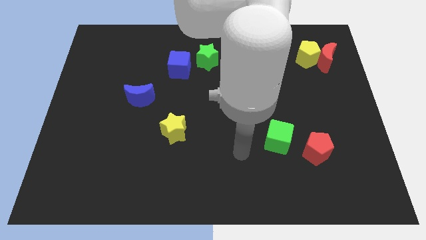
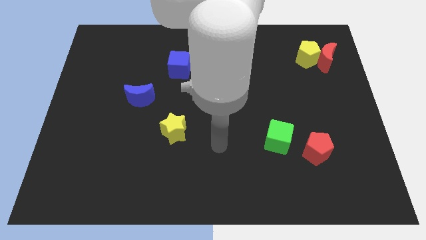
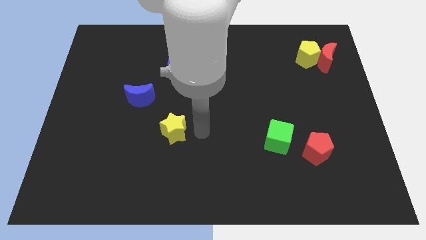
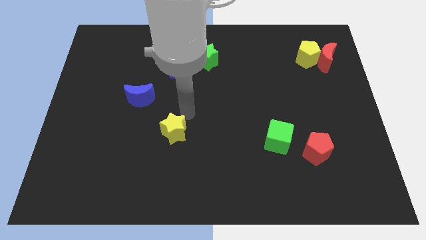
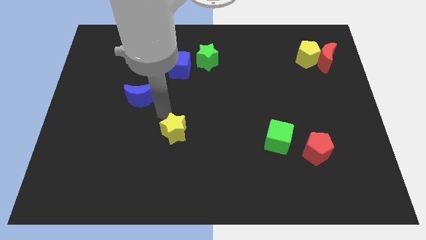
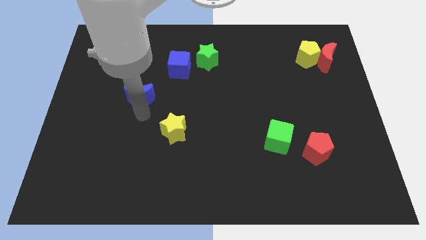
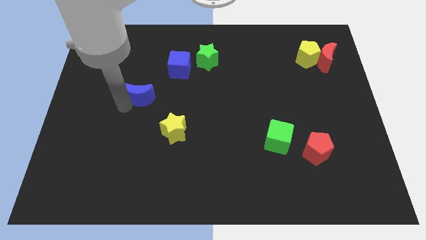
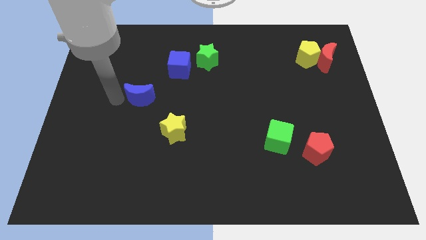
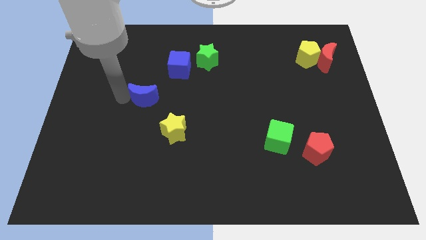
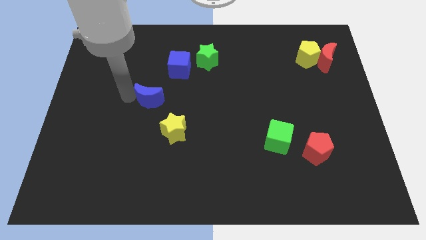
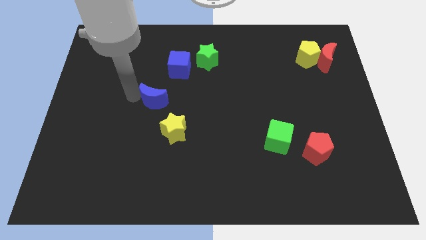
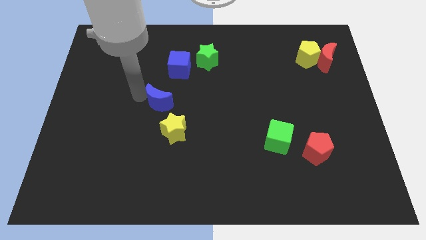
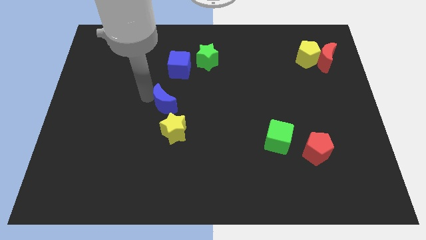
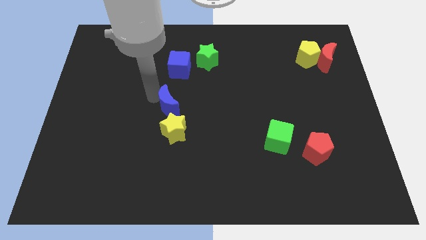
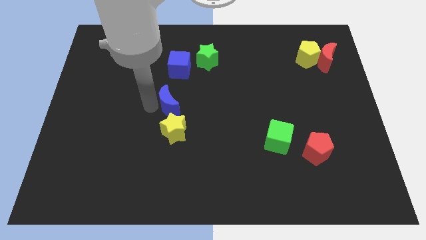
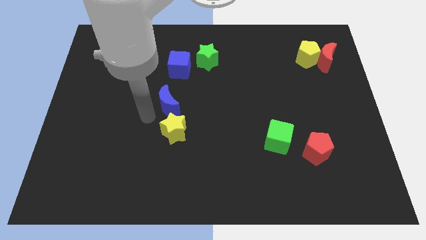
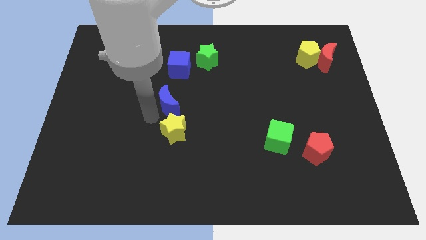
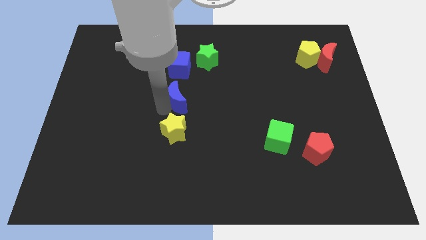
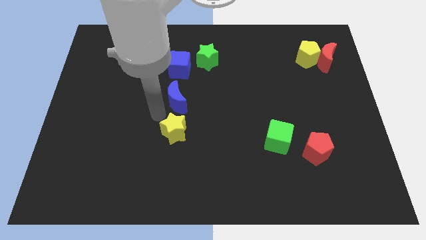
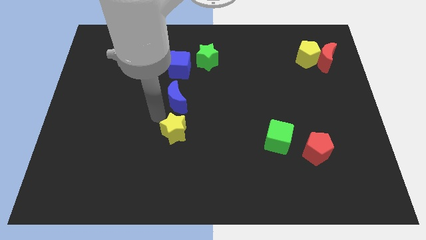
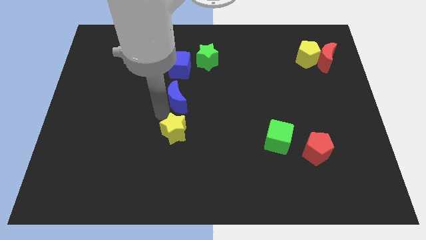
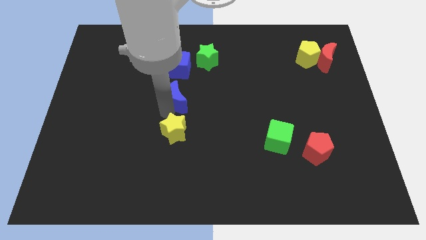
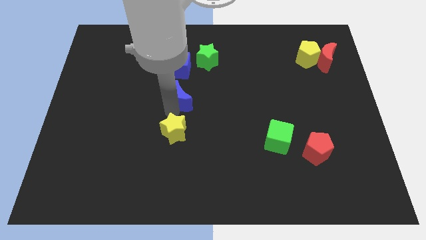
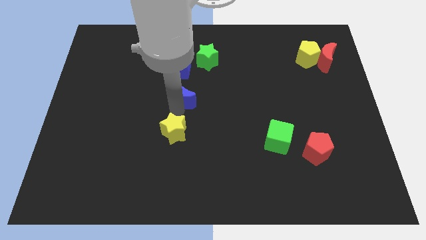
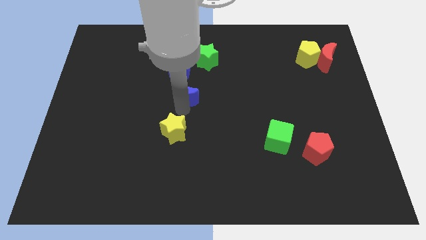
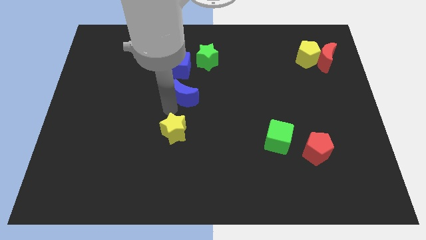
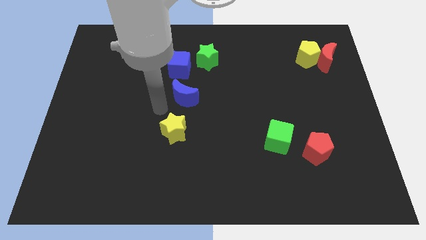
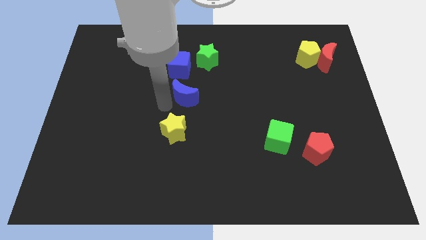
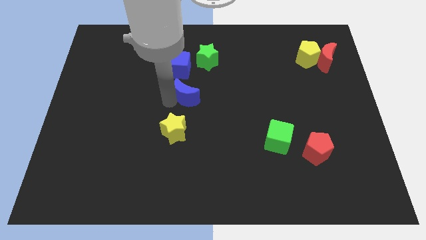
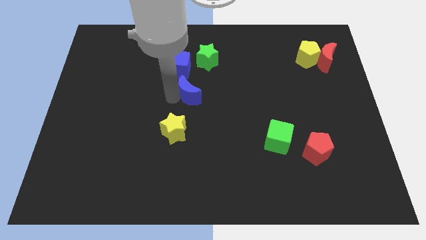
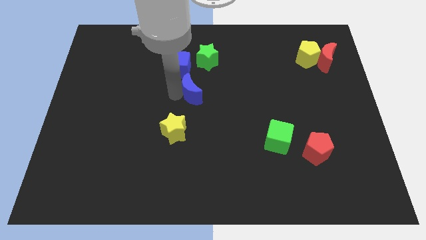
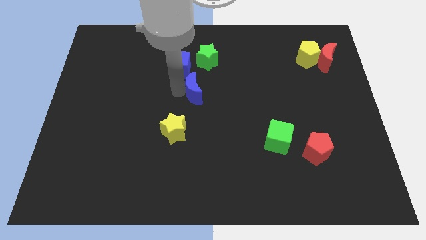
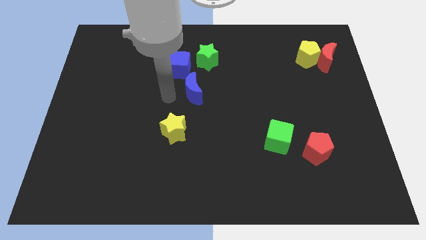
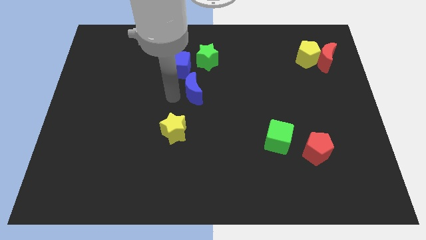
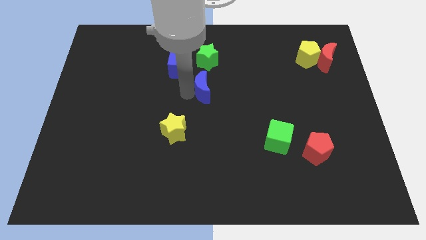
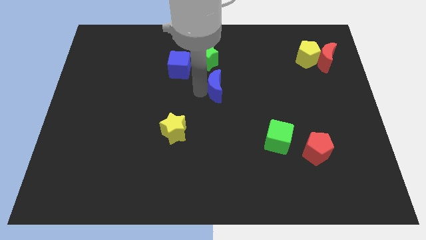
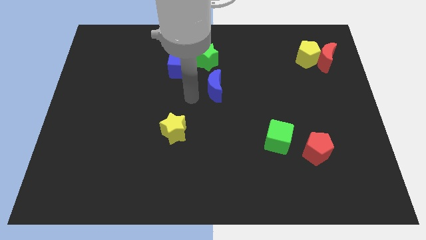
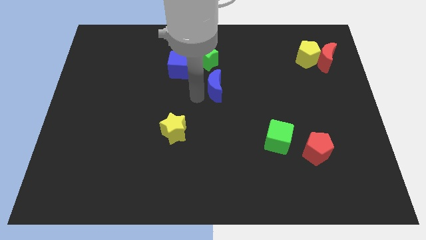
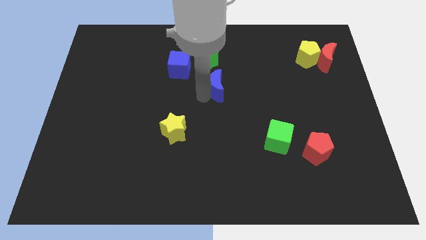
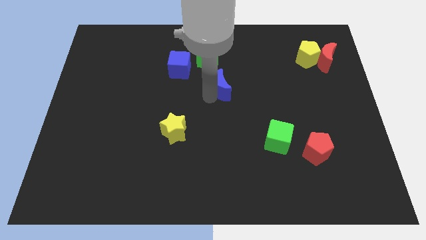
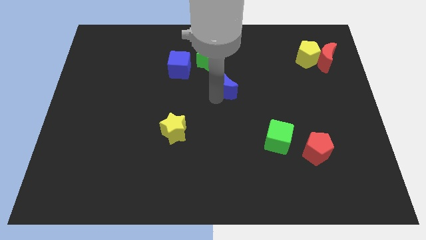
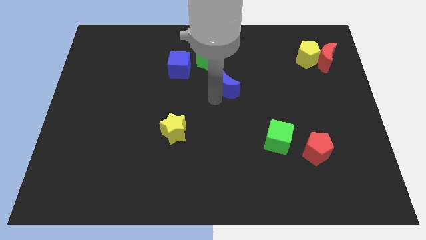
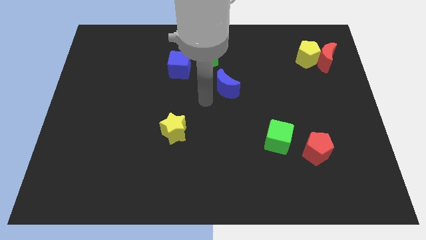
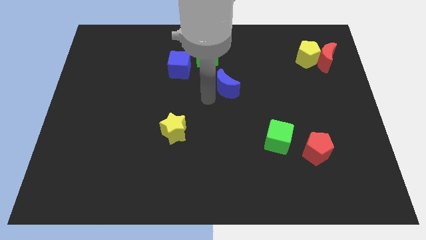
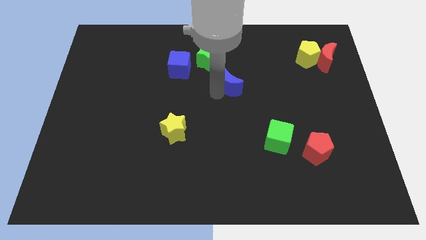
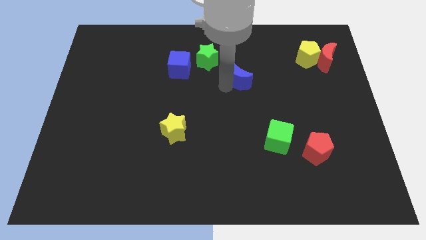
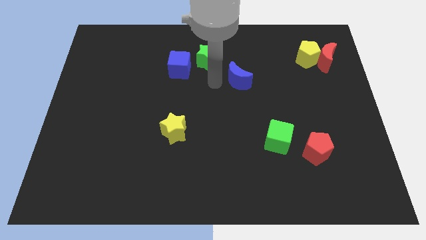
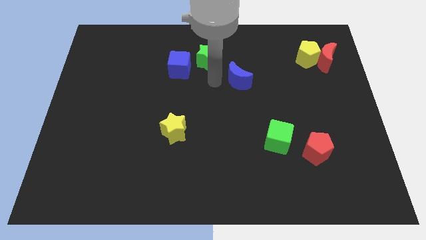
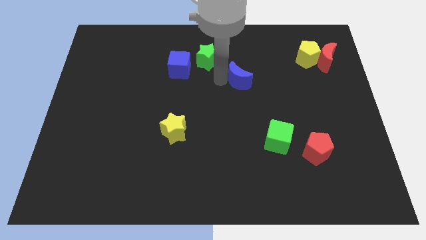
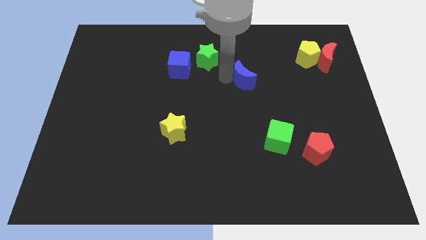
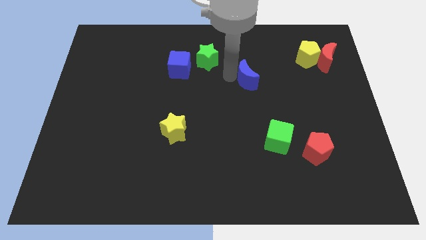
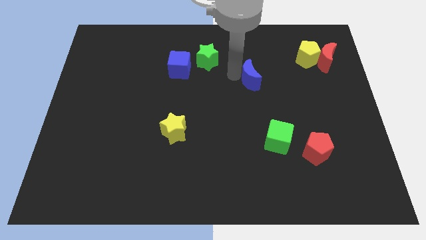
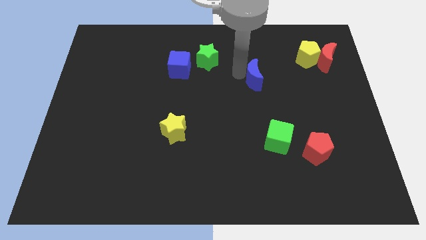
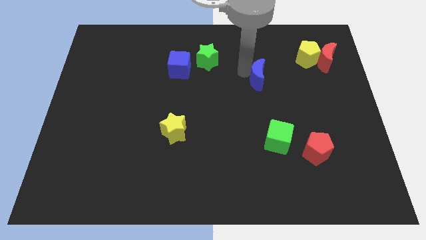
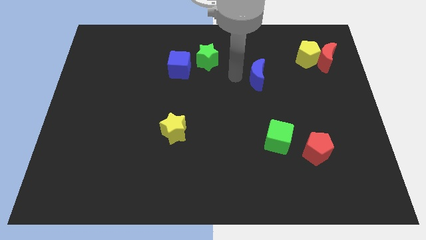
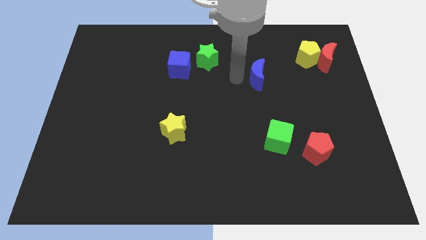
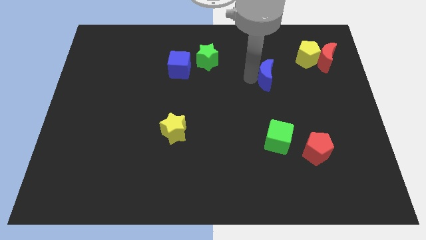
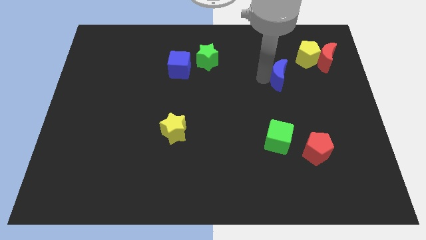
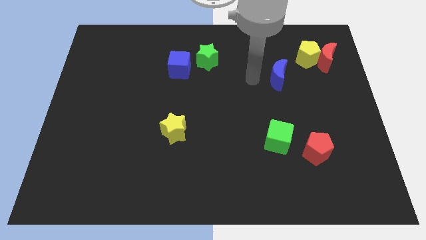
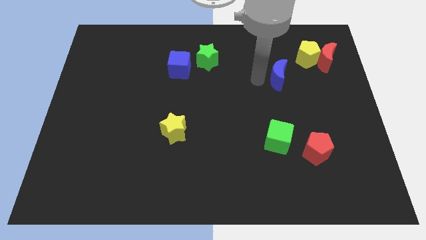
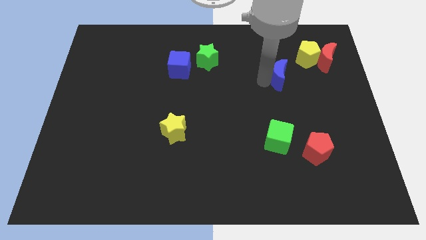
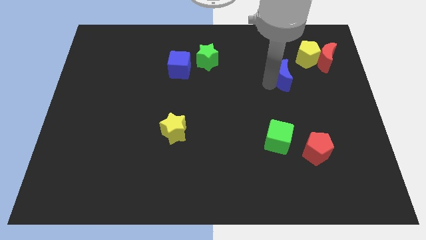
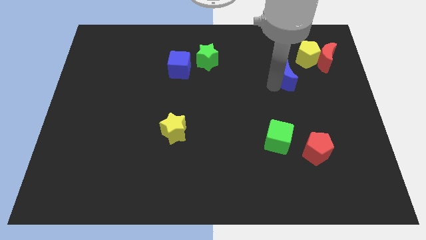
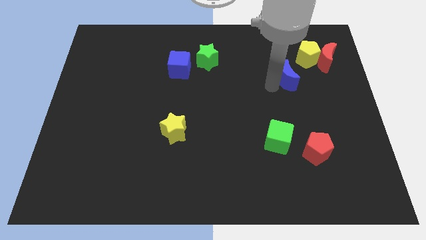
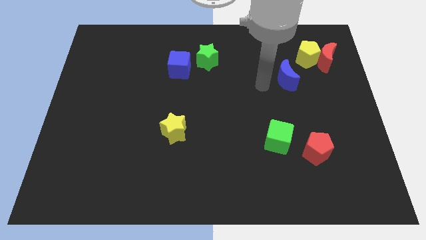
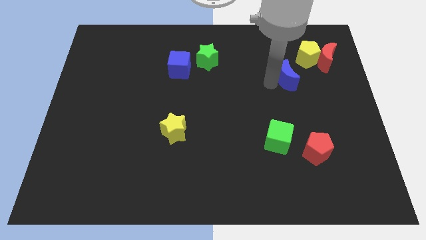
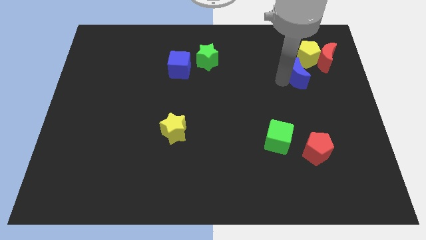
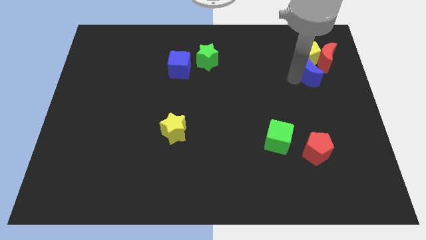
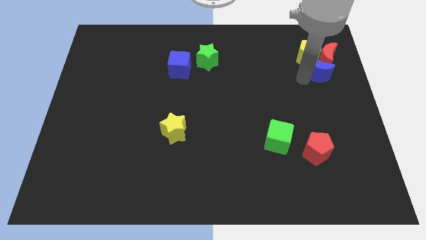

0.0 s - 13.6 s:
slide the blue moon to the red moon
